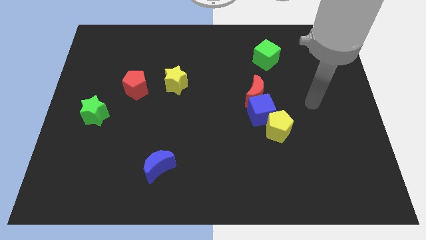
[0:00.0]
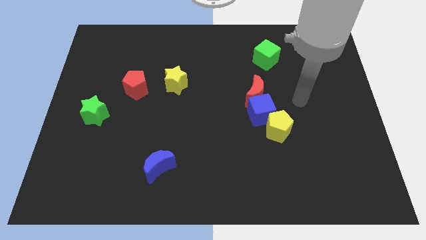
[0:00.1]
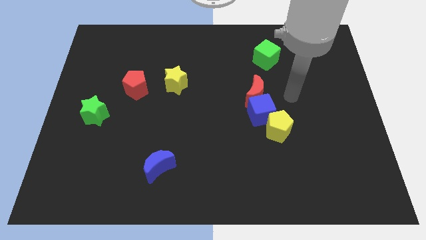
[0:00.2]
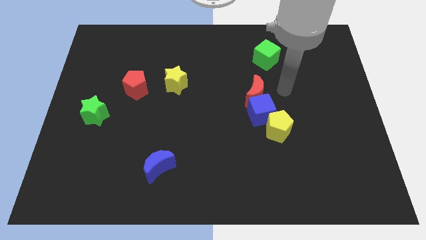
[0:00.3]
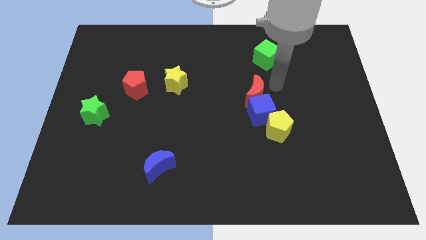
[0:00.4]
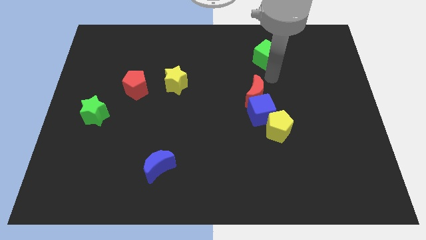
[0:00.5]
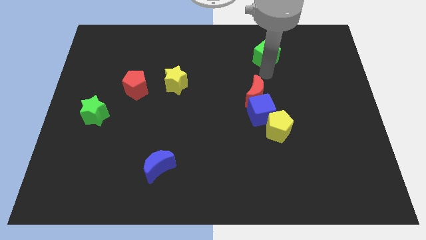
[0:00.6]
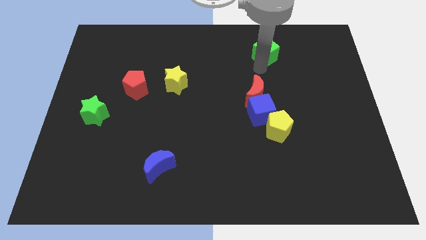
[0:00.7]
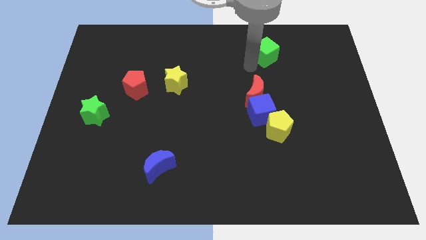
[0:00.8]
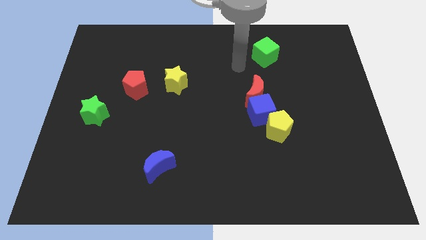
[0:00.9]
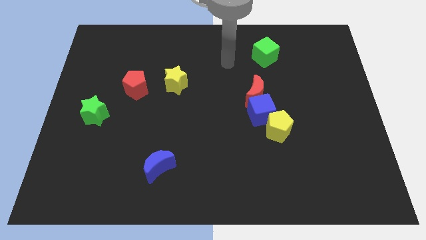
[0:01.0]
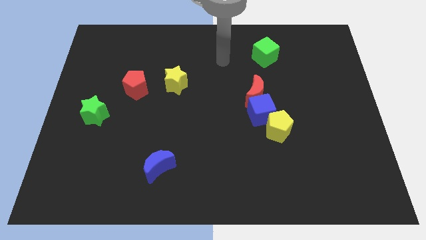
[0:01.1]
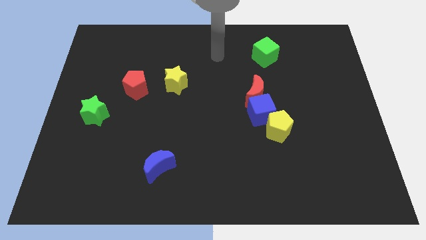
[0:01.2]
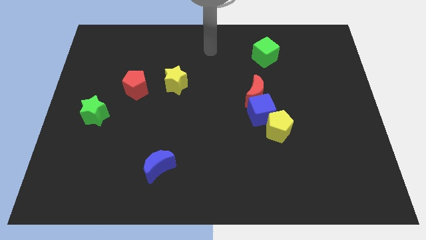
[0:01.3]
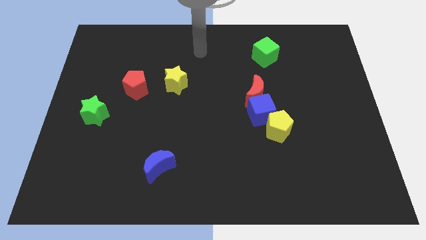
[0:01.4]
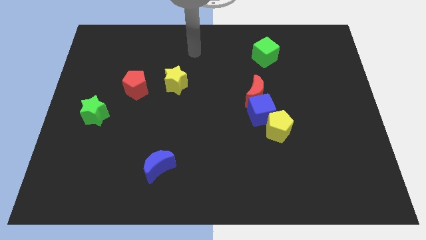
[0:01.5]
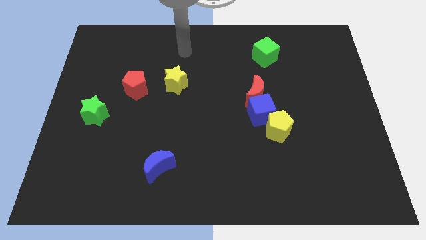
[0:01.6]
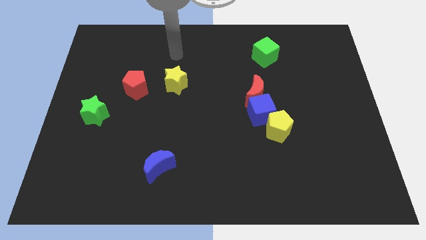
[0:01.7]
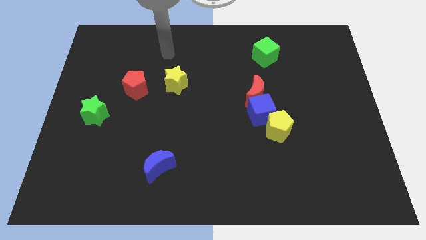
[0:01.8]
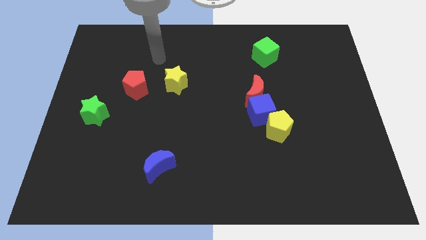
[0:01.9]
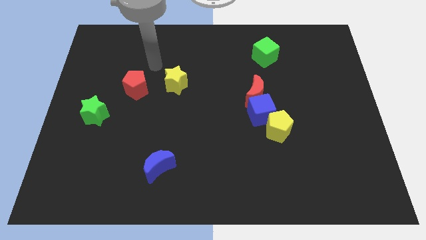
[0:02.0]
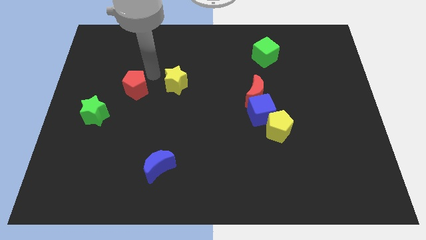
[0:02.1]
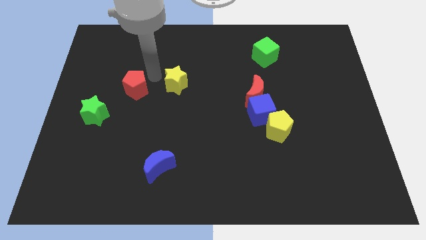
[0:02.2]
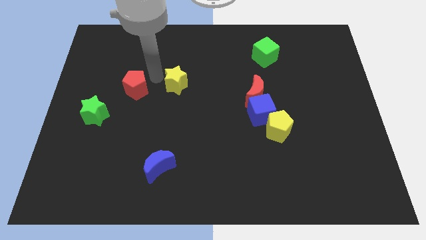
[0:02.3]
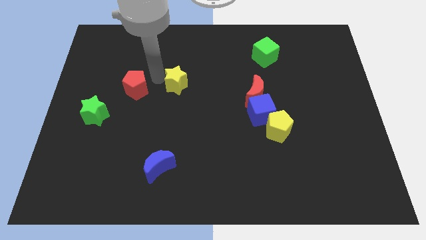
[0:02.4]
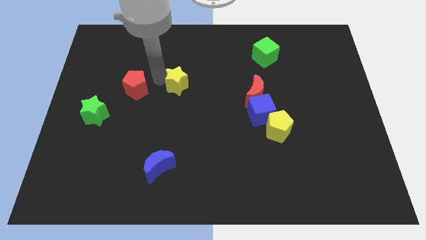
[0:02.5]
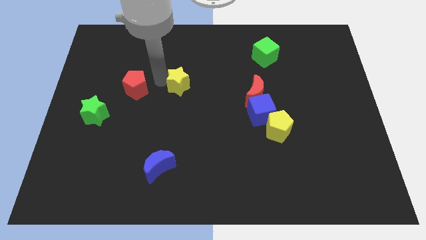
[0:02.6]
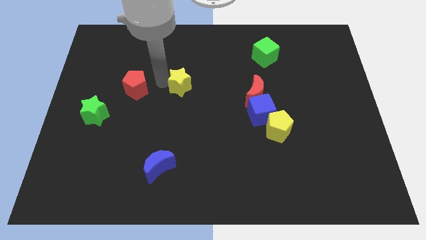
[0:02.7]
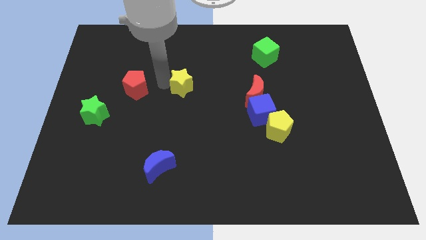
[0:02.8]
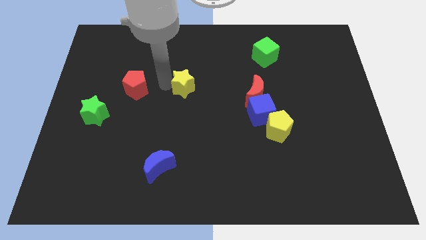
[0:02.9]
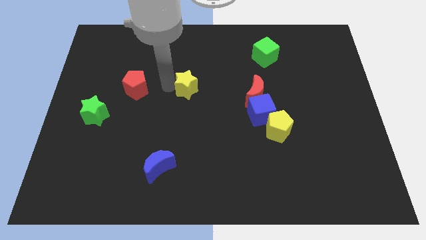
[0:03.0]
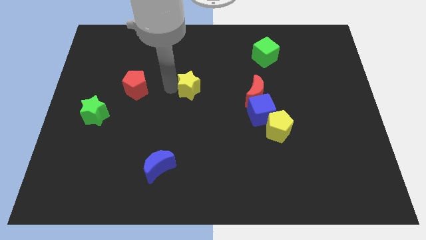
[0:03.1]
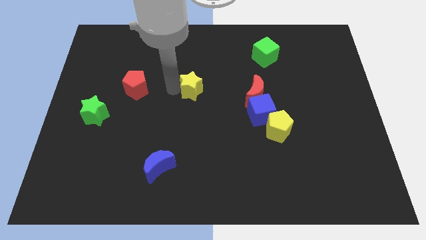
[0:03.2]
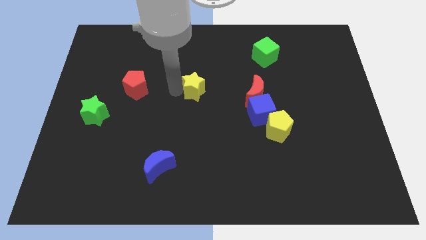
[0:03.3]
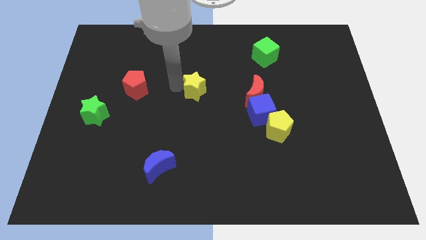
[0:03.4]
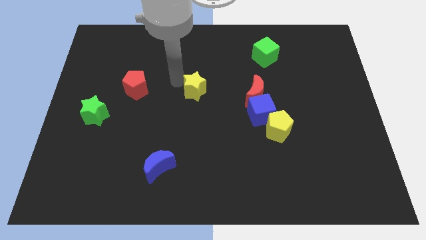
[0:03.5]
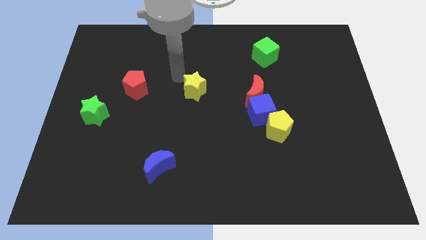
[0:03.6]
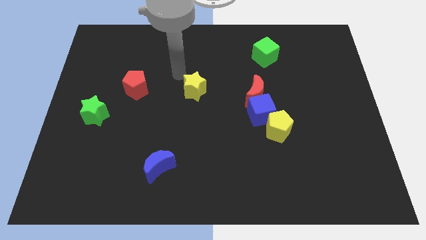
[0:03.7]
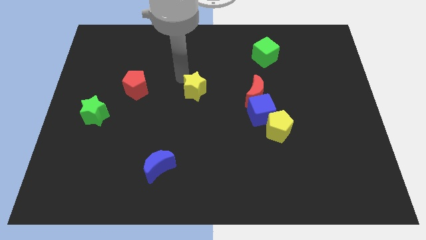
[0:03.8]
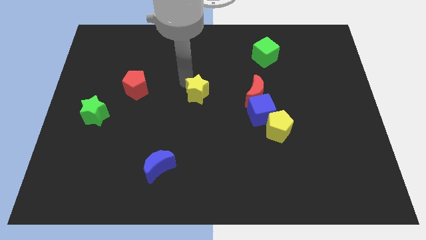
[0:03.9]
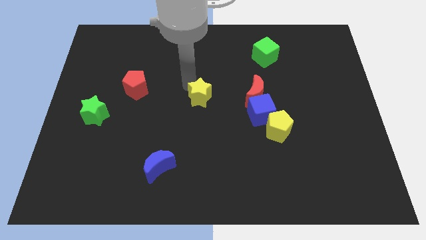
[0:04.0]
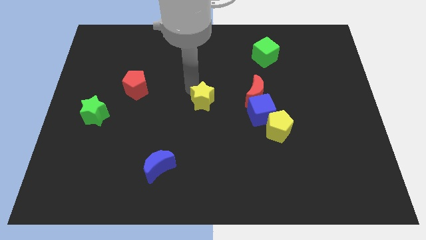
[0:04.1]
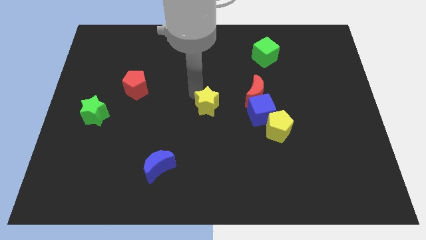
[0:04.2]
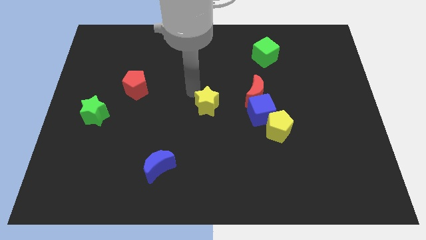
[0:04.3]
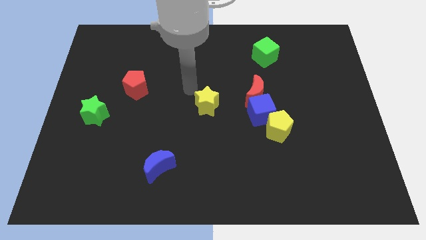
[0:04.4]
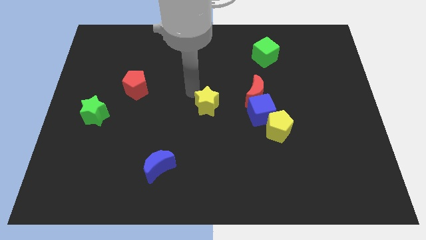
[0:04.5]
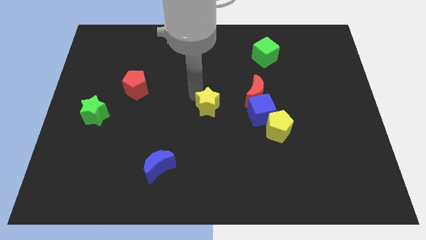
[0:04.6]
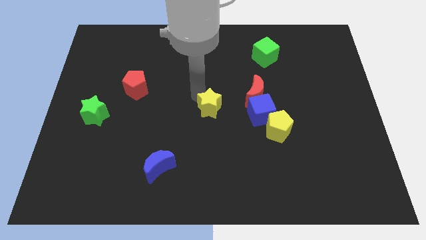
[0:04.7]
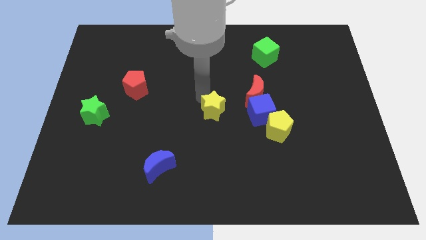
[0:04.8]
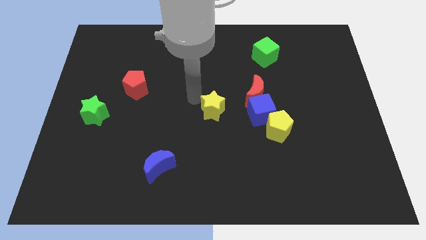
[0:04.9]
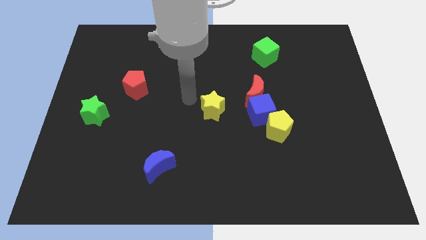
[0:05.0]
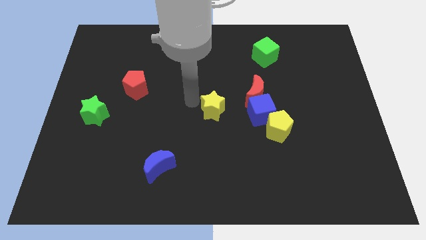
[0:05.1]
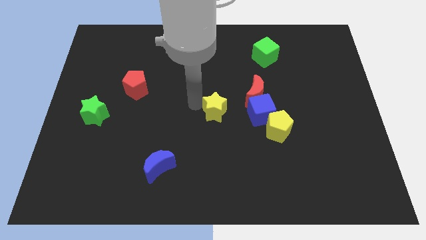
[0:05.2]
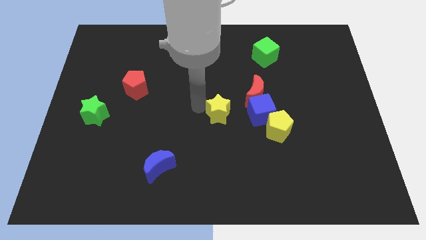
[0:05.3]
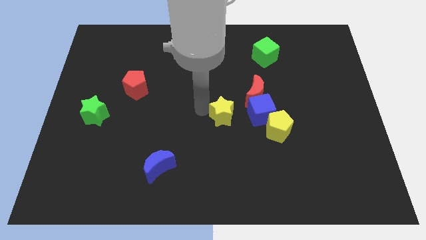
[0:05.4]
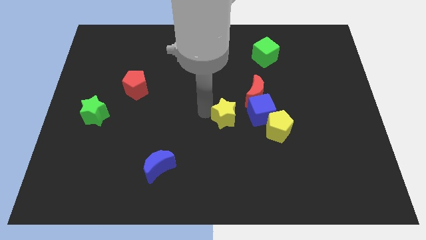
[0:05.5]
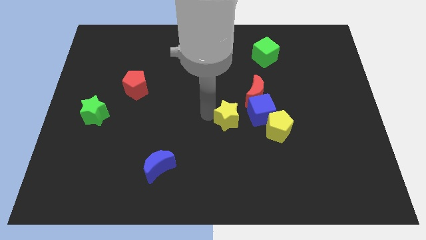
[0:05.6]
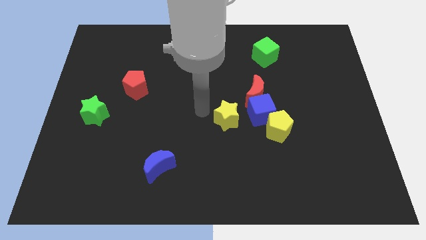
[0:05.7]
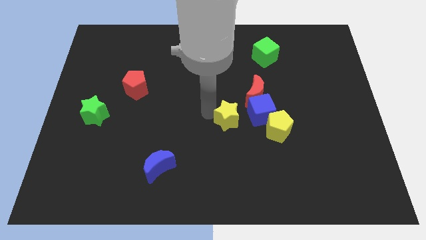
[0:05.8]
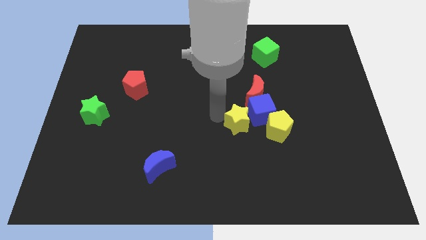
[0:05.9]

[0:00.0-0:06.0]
put the yellow star below the red moon

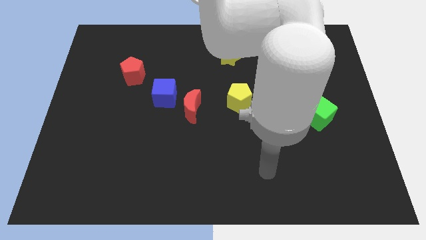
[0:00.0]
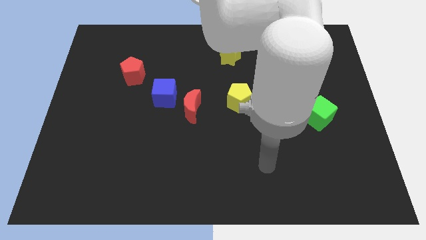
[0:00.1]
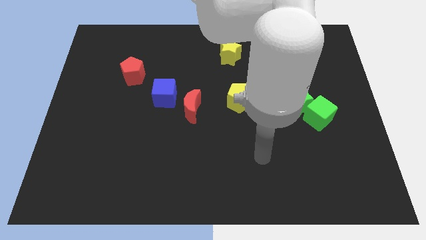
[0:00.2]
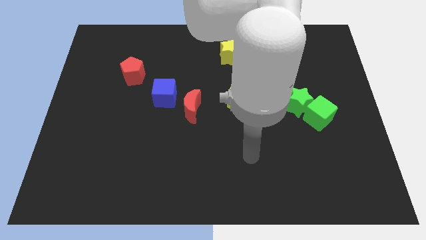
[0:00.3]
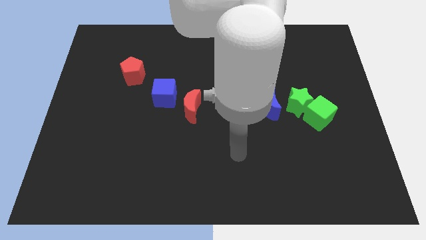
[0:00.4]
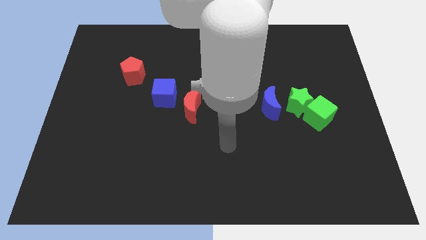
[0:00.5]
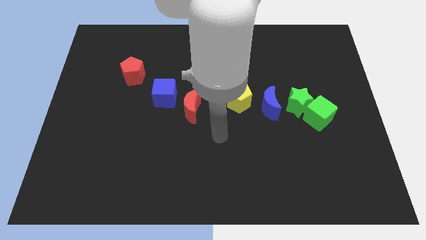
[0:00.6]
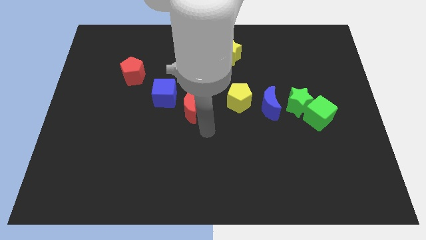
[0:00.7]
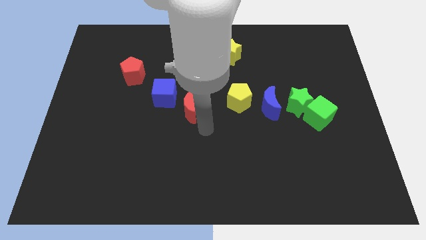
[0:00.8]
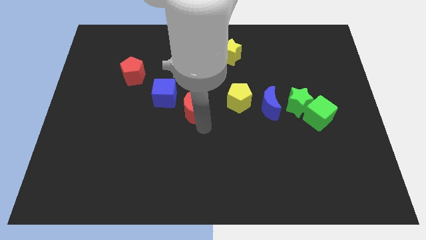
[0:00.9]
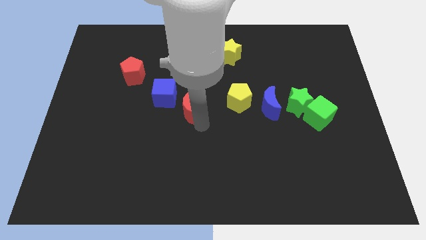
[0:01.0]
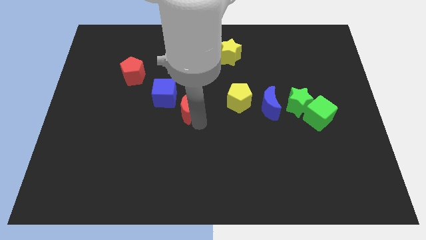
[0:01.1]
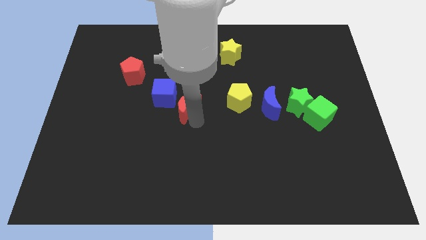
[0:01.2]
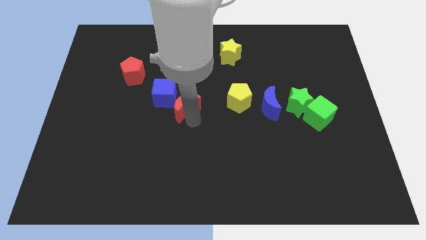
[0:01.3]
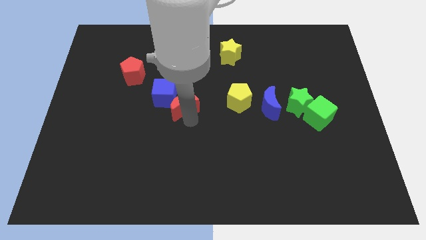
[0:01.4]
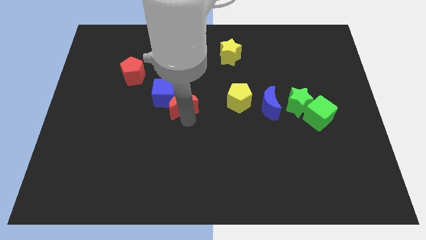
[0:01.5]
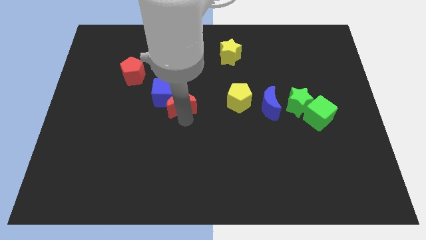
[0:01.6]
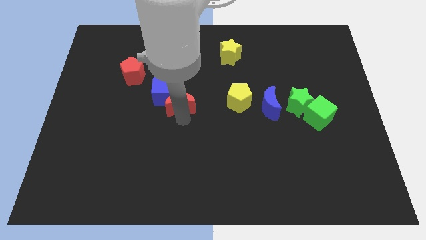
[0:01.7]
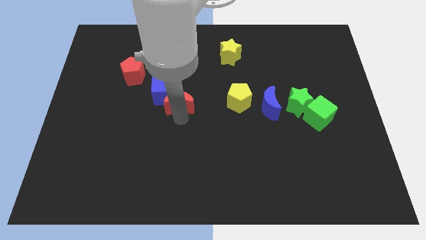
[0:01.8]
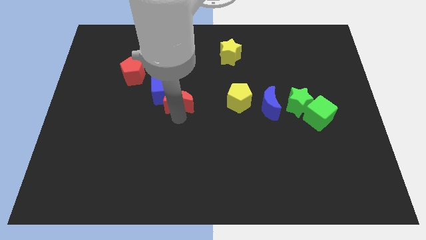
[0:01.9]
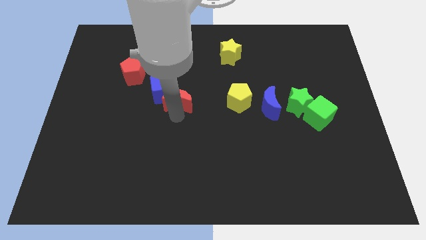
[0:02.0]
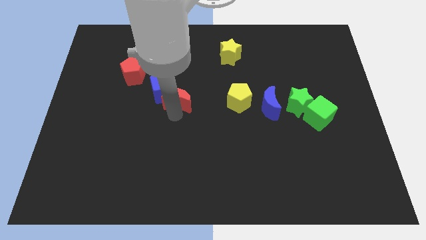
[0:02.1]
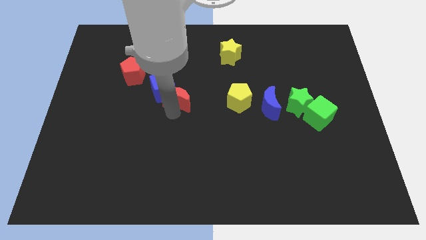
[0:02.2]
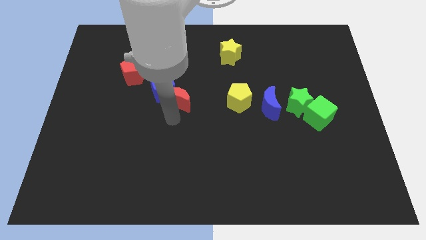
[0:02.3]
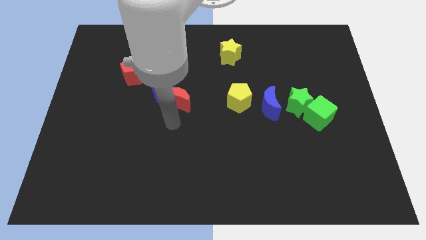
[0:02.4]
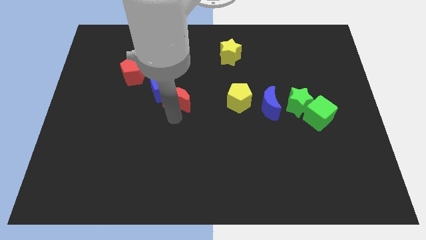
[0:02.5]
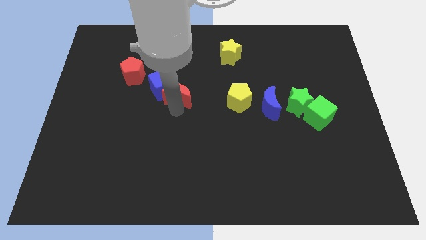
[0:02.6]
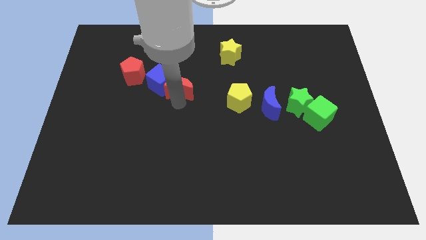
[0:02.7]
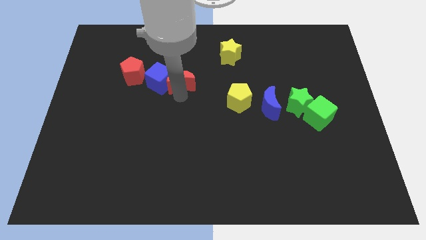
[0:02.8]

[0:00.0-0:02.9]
move the red moon to the top right side of the blue cube
